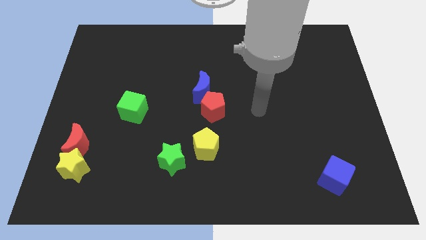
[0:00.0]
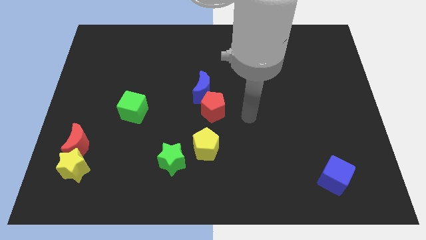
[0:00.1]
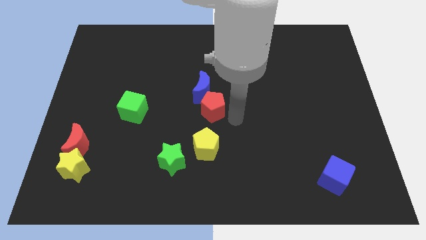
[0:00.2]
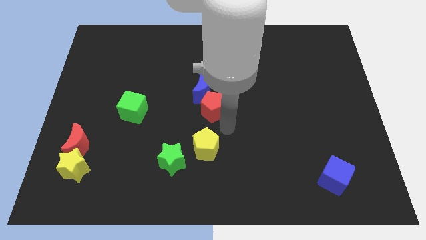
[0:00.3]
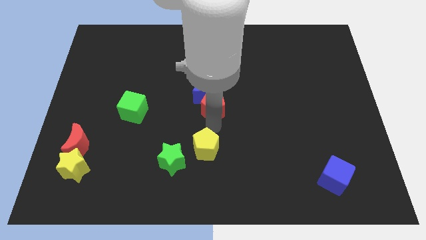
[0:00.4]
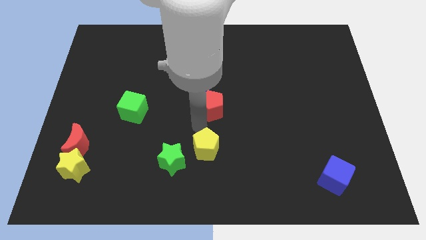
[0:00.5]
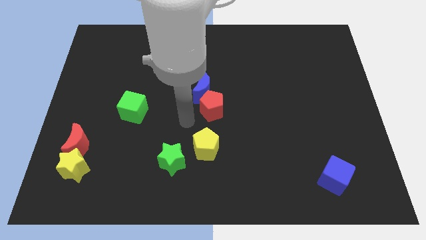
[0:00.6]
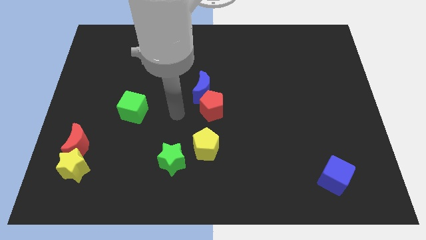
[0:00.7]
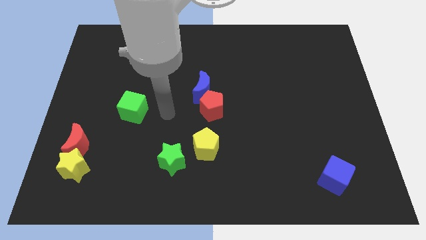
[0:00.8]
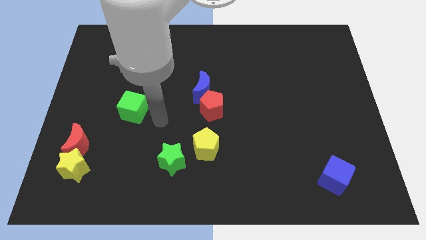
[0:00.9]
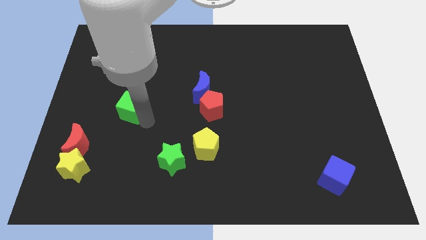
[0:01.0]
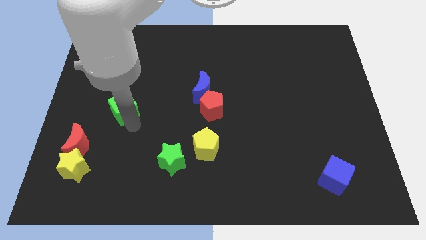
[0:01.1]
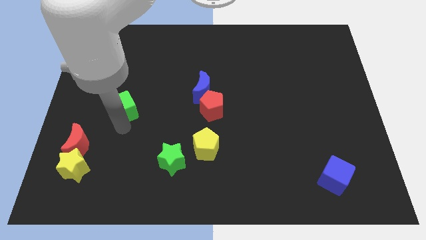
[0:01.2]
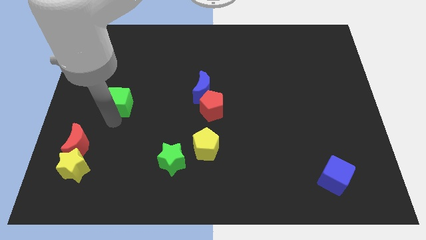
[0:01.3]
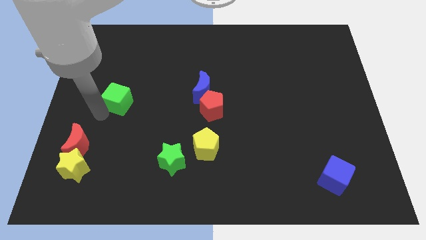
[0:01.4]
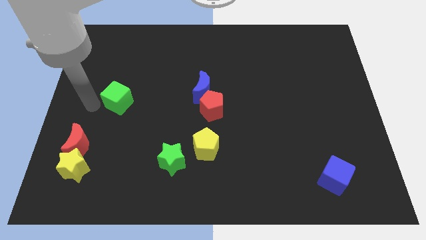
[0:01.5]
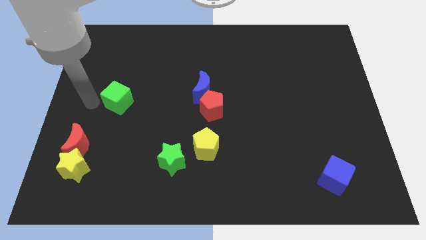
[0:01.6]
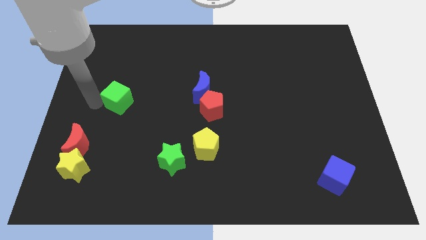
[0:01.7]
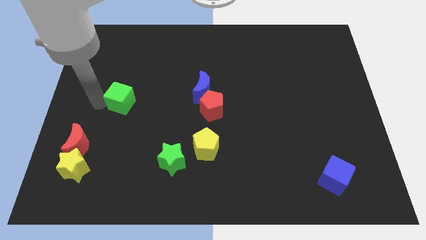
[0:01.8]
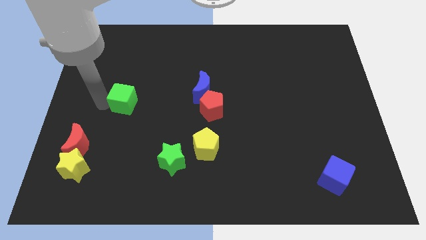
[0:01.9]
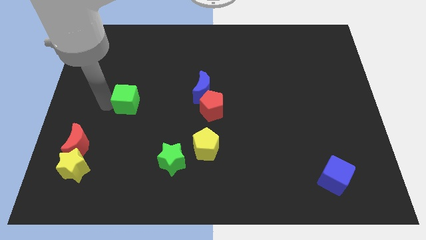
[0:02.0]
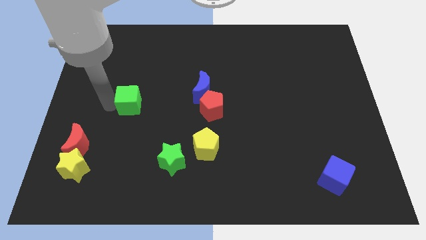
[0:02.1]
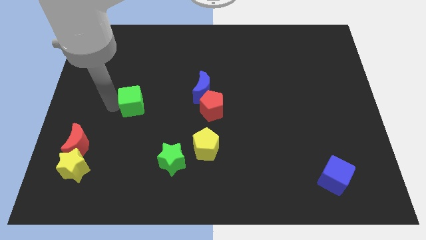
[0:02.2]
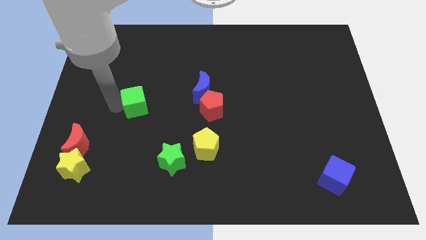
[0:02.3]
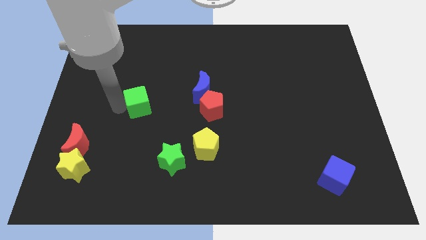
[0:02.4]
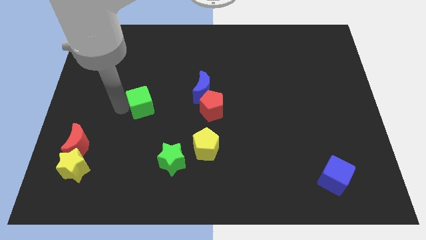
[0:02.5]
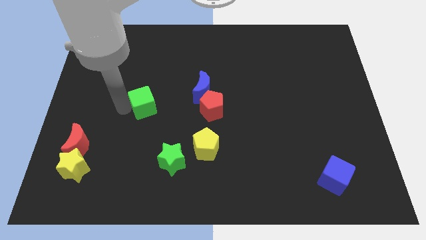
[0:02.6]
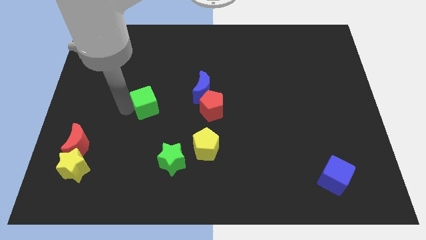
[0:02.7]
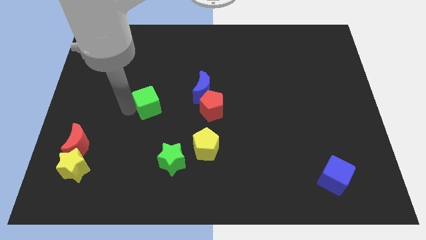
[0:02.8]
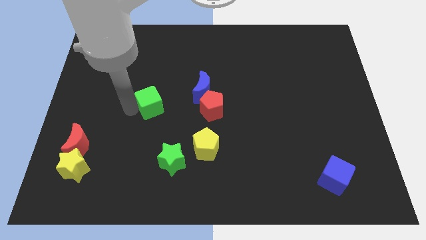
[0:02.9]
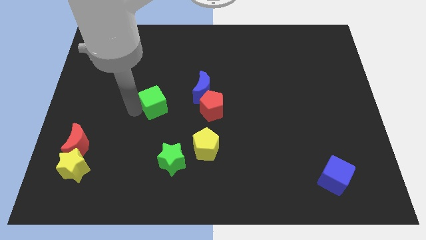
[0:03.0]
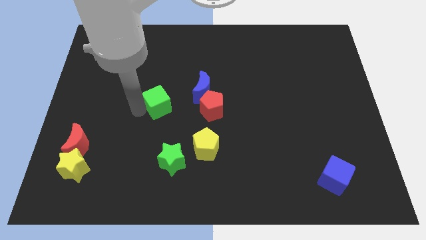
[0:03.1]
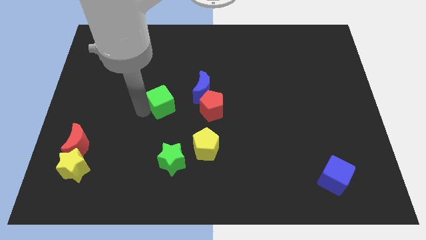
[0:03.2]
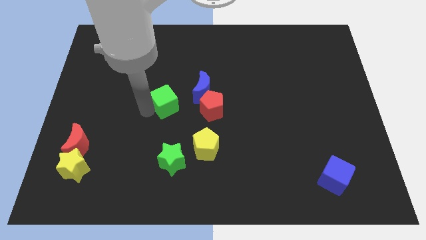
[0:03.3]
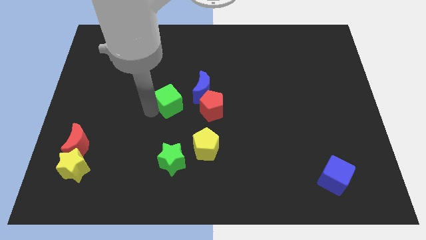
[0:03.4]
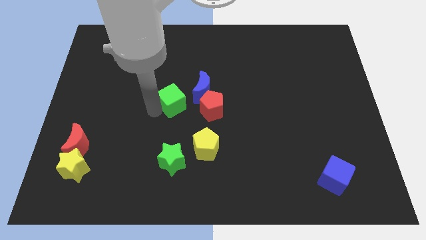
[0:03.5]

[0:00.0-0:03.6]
slide the green cube up and right diagonally a little

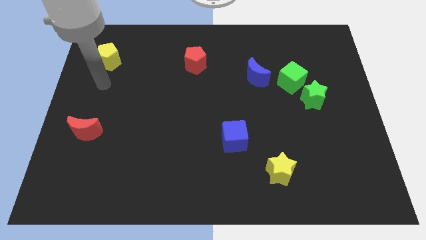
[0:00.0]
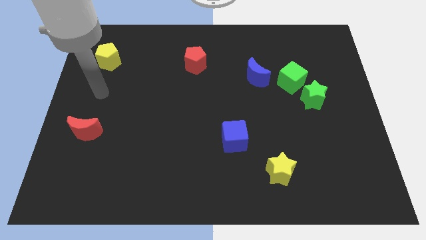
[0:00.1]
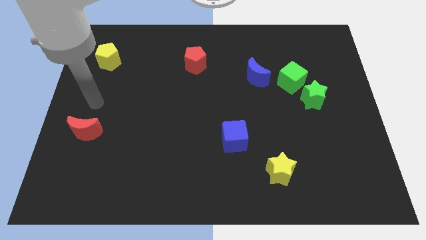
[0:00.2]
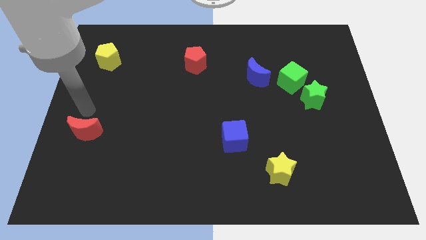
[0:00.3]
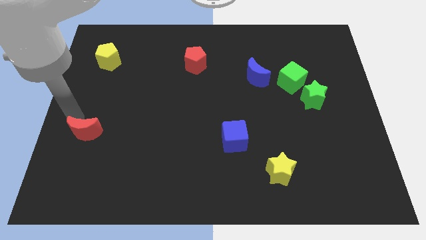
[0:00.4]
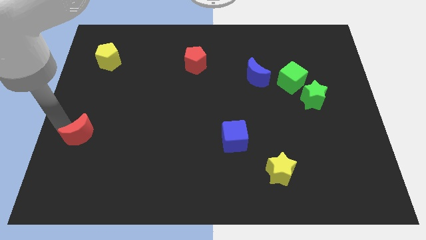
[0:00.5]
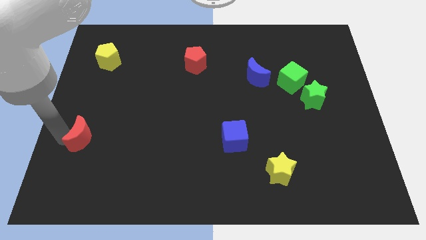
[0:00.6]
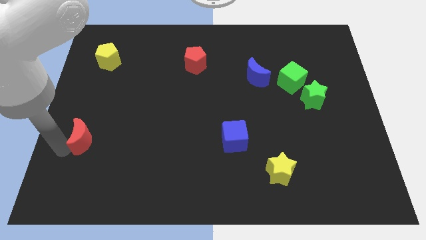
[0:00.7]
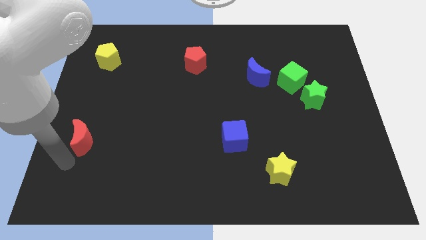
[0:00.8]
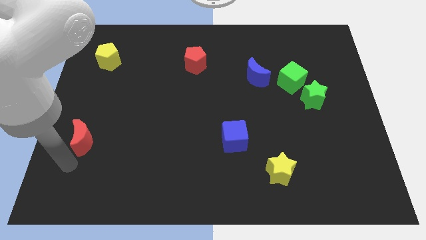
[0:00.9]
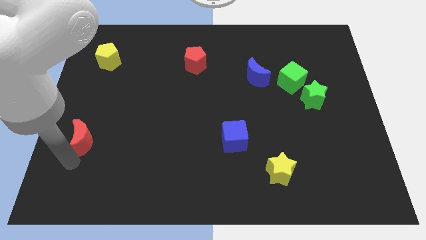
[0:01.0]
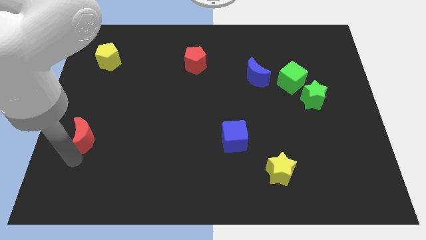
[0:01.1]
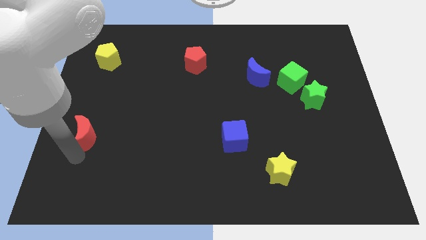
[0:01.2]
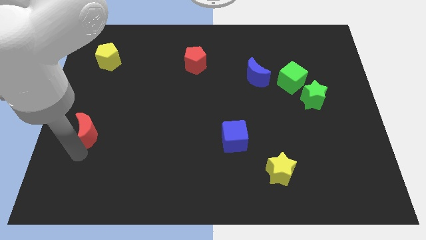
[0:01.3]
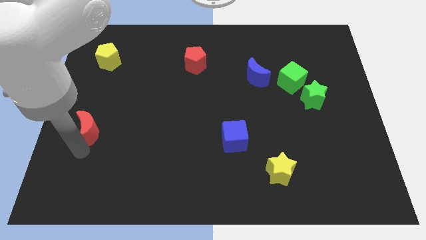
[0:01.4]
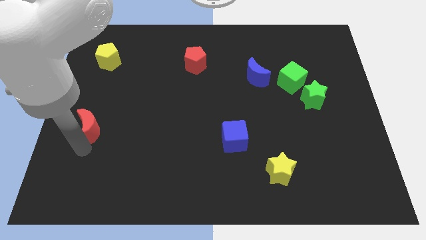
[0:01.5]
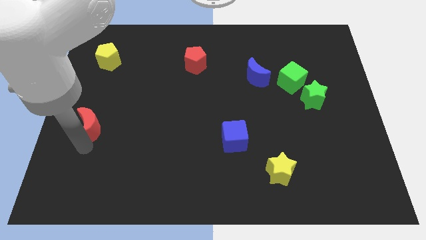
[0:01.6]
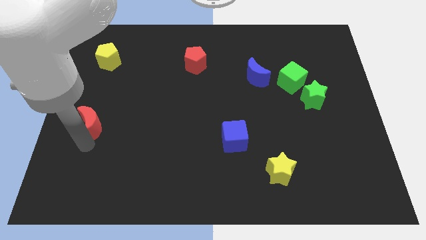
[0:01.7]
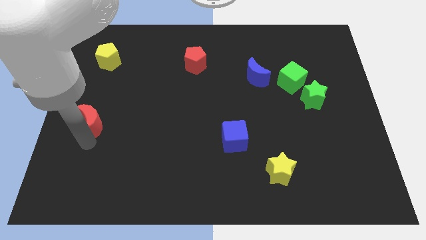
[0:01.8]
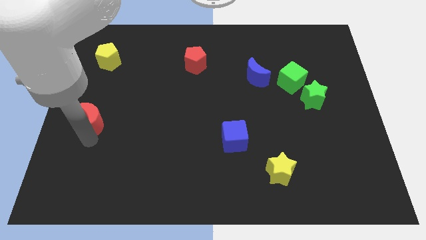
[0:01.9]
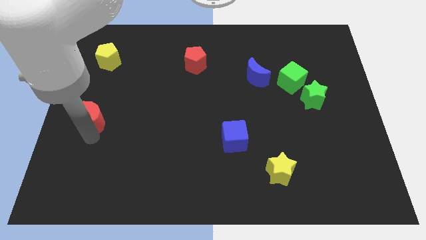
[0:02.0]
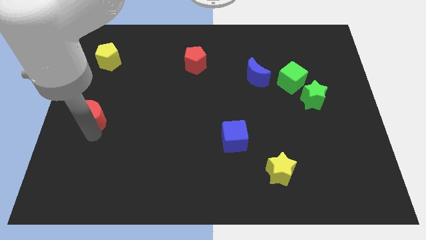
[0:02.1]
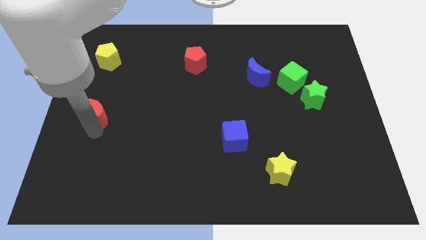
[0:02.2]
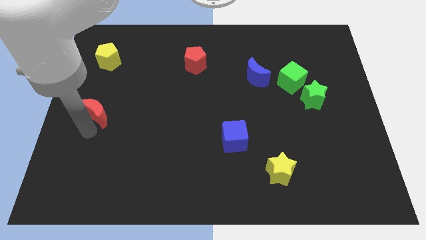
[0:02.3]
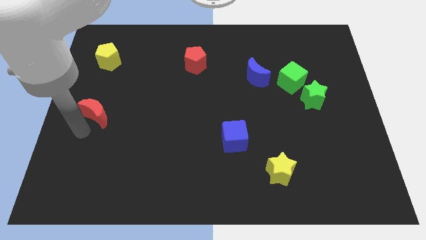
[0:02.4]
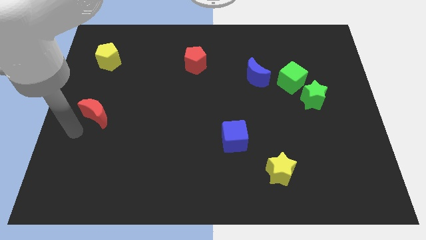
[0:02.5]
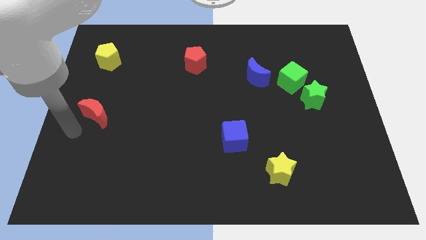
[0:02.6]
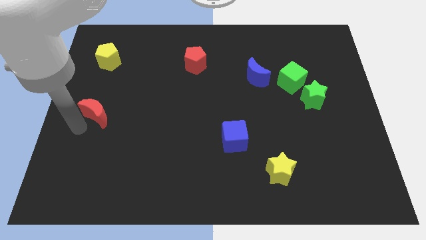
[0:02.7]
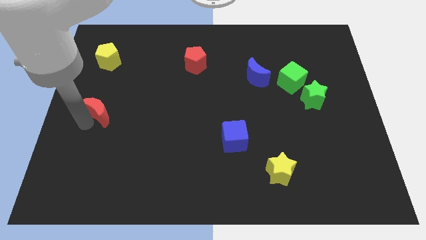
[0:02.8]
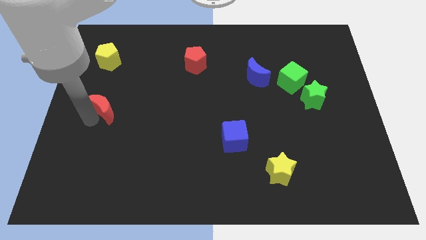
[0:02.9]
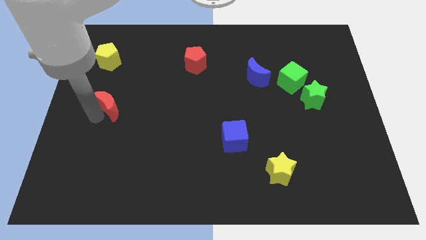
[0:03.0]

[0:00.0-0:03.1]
slightly move the red moon upwards and to the right diagonally

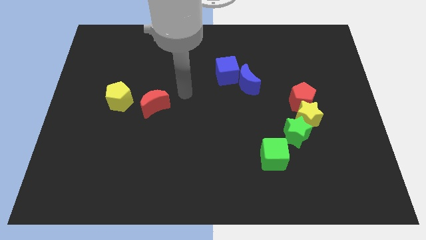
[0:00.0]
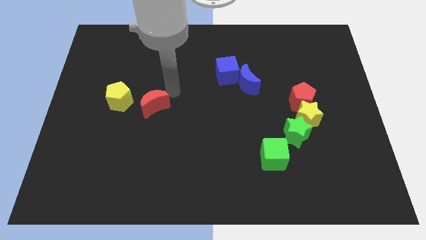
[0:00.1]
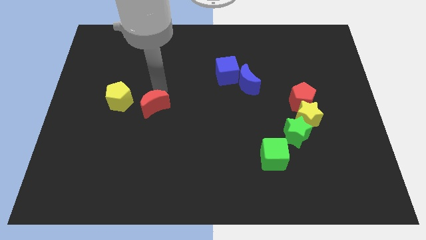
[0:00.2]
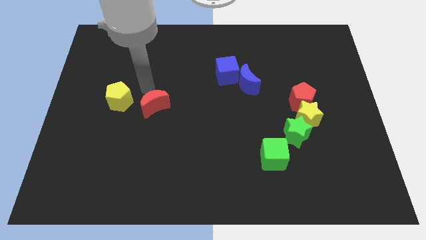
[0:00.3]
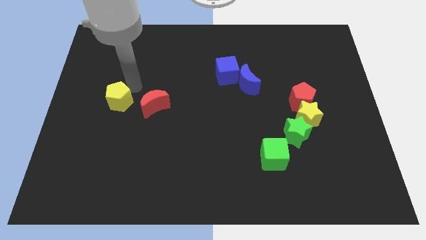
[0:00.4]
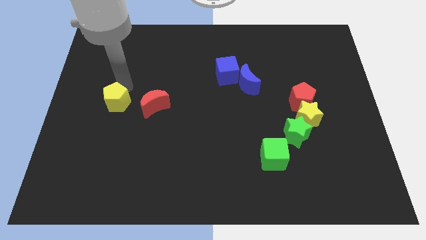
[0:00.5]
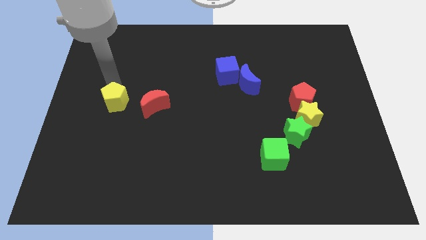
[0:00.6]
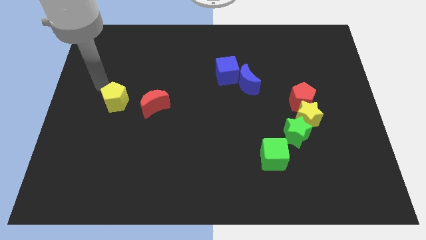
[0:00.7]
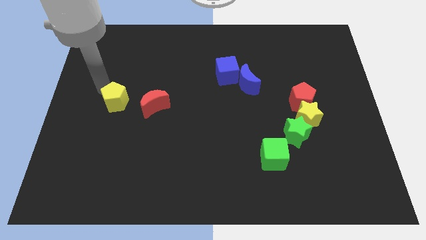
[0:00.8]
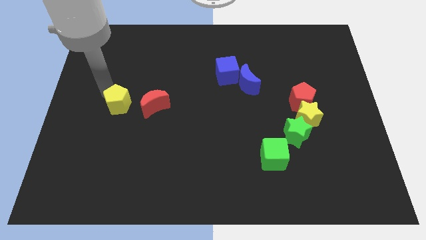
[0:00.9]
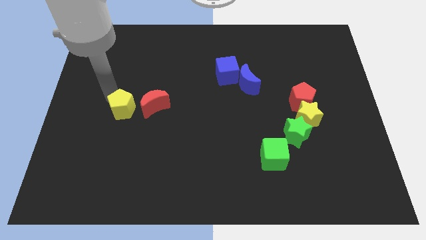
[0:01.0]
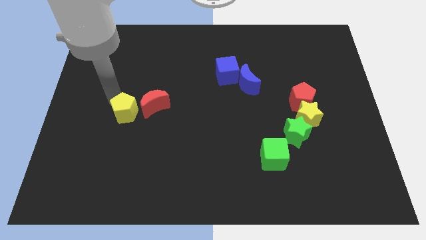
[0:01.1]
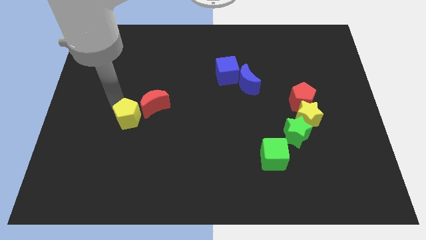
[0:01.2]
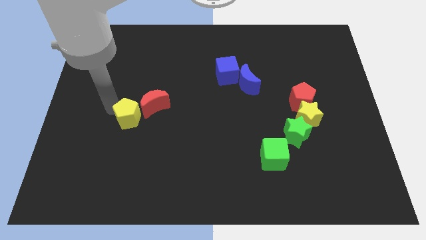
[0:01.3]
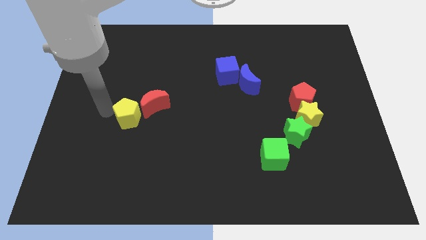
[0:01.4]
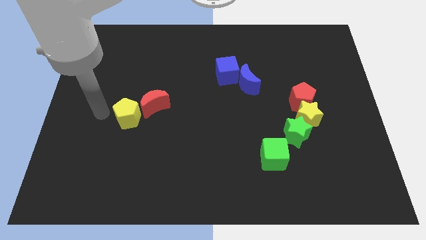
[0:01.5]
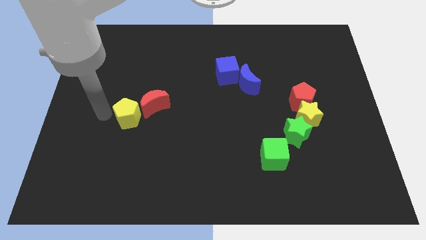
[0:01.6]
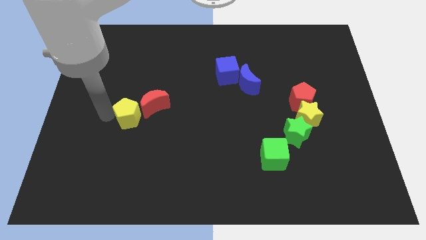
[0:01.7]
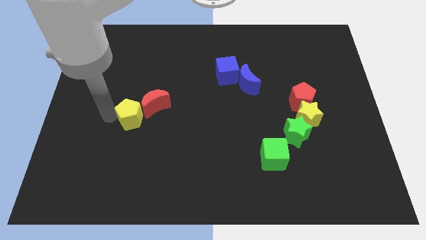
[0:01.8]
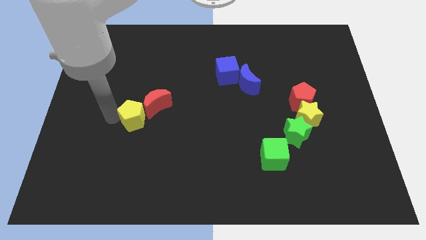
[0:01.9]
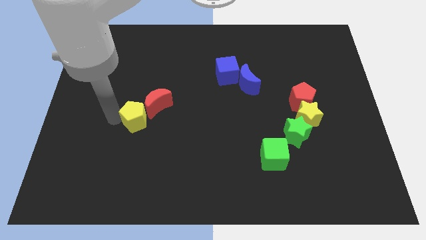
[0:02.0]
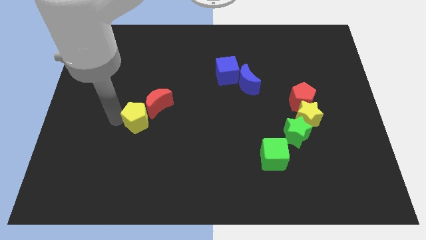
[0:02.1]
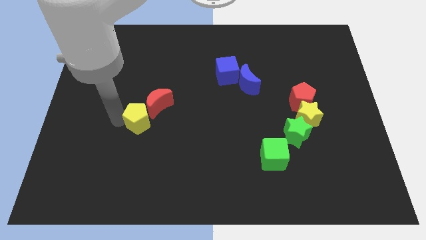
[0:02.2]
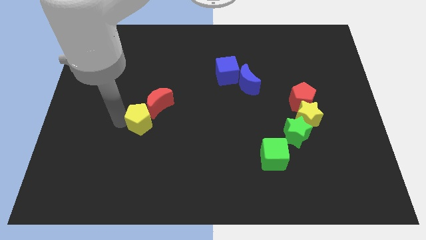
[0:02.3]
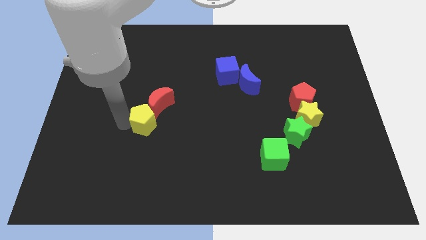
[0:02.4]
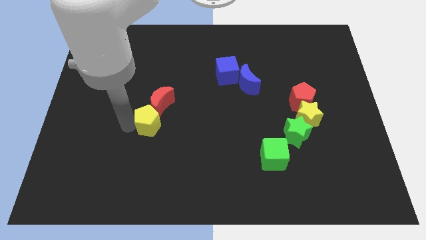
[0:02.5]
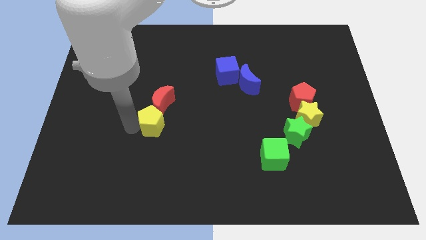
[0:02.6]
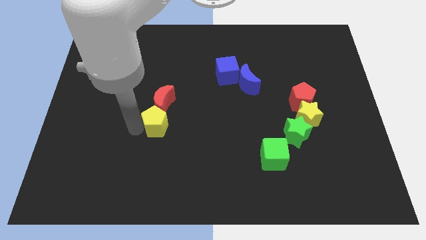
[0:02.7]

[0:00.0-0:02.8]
slide the yellow pentagon right a little
